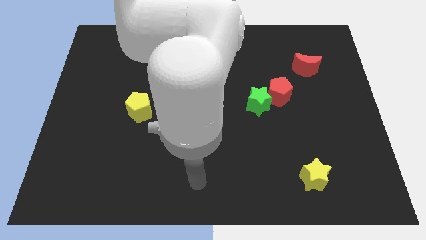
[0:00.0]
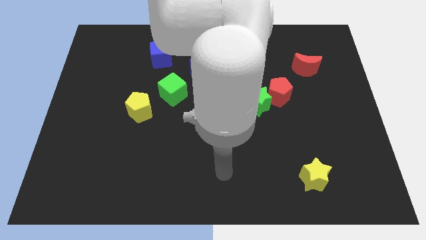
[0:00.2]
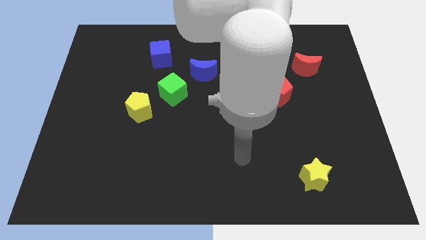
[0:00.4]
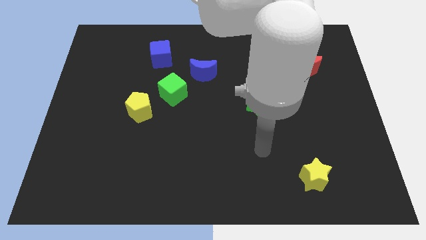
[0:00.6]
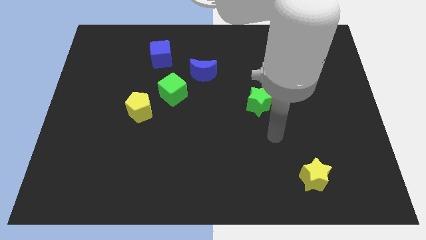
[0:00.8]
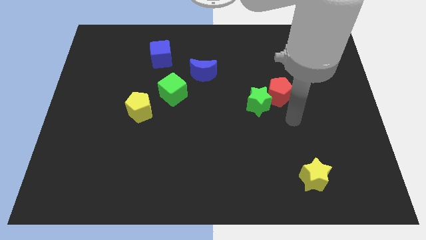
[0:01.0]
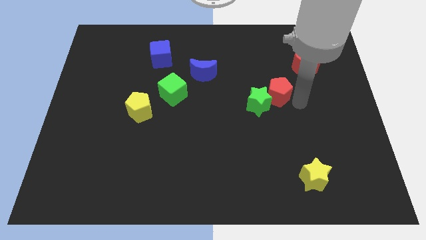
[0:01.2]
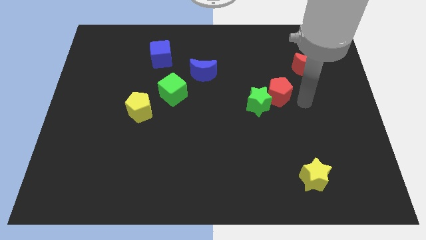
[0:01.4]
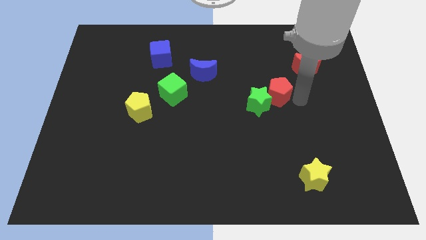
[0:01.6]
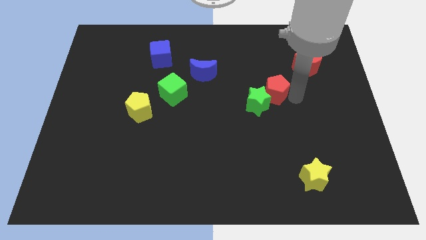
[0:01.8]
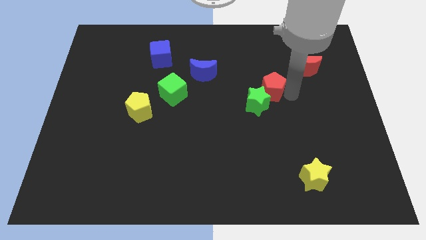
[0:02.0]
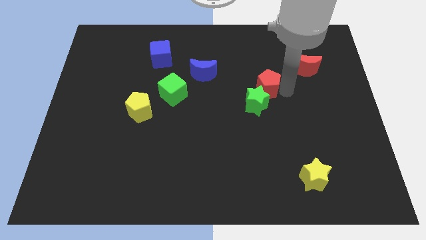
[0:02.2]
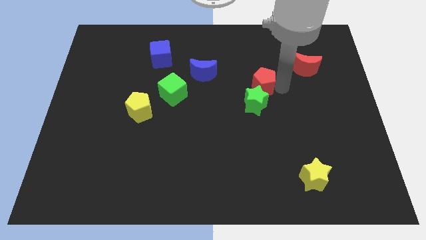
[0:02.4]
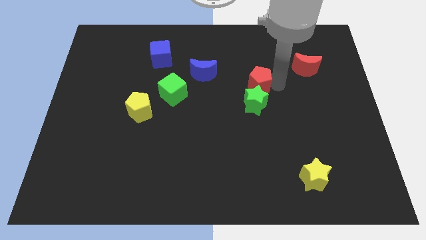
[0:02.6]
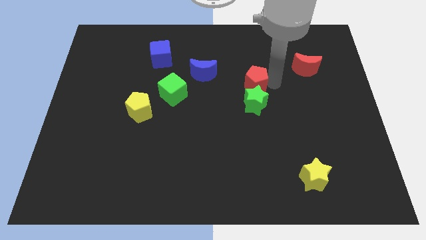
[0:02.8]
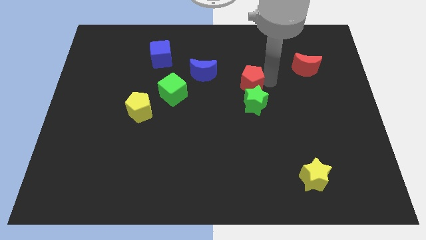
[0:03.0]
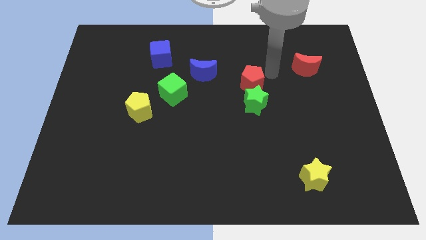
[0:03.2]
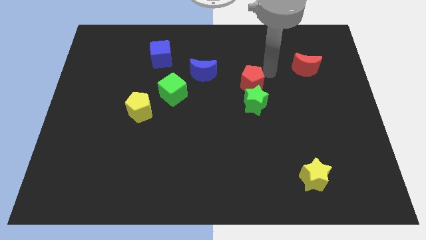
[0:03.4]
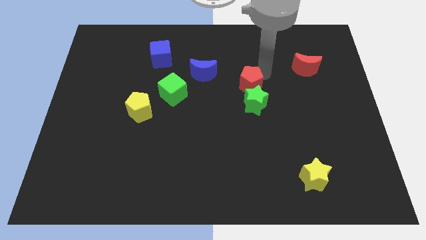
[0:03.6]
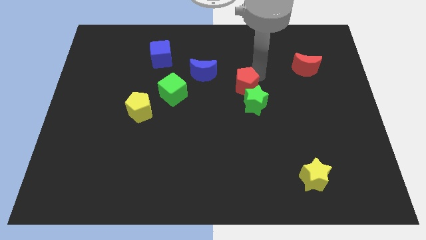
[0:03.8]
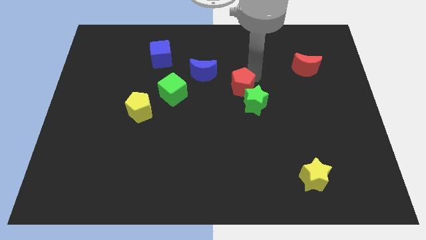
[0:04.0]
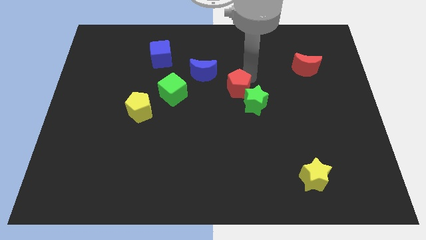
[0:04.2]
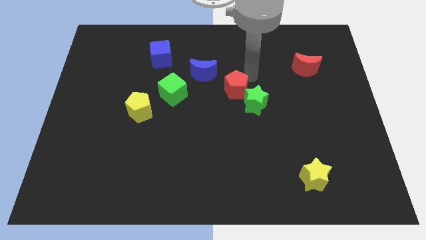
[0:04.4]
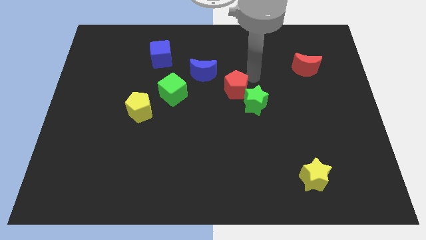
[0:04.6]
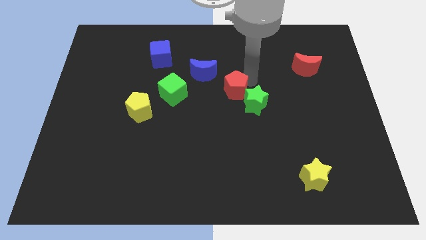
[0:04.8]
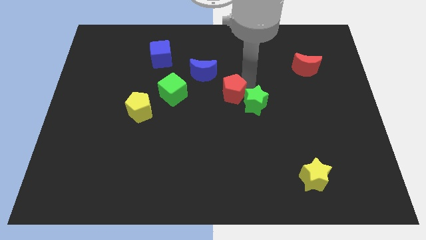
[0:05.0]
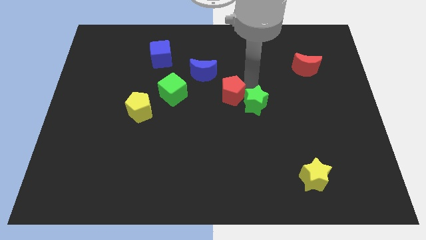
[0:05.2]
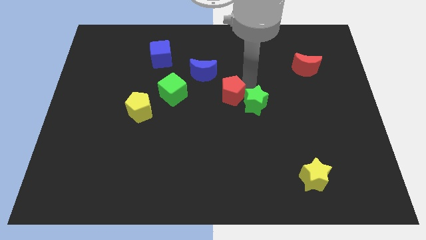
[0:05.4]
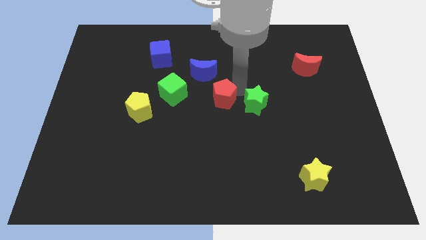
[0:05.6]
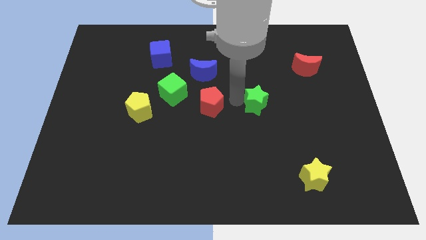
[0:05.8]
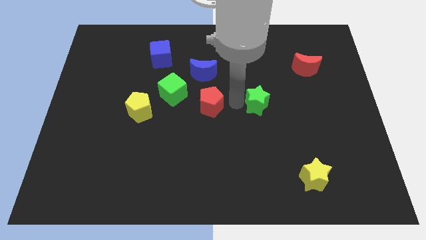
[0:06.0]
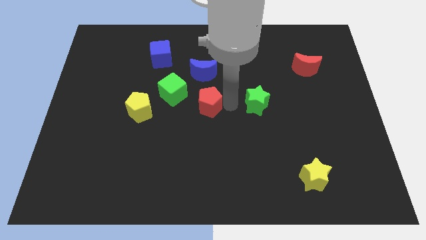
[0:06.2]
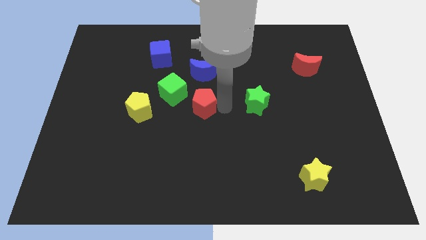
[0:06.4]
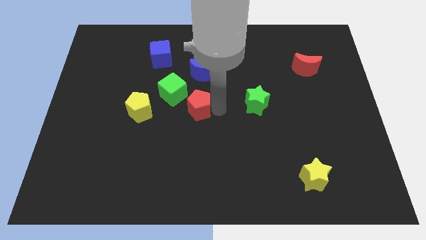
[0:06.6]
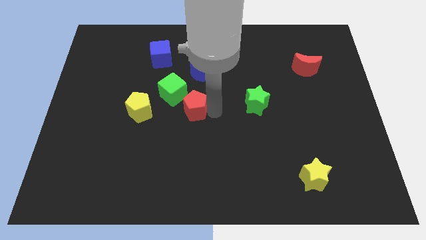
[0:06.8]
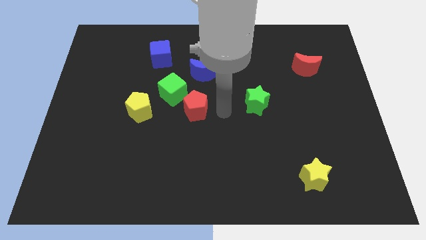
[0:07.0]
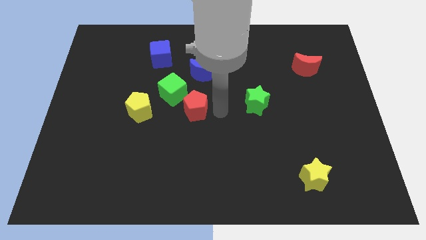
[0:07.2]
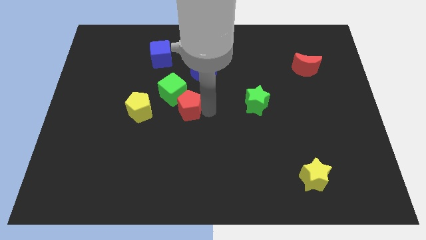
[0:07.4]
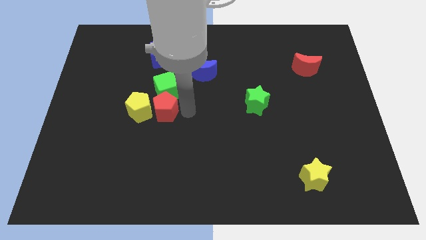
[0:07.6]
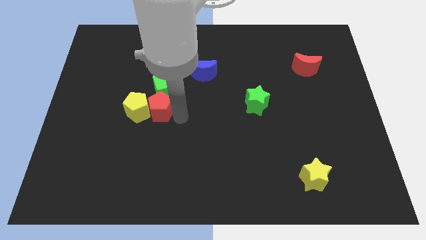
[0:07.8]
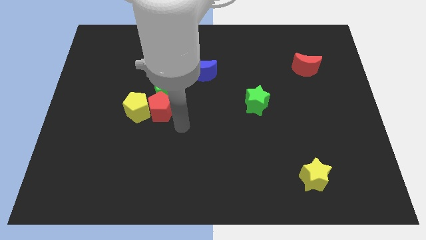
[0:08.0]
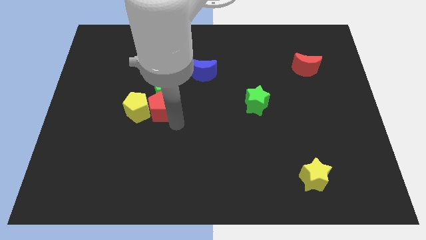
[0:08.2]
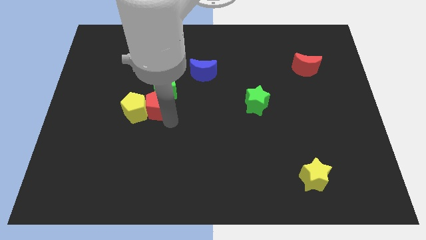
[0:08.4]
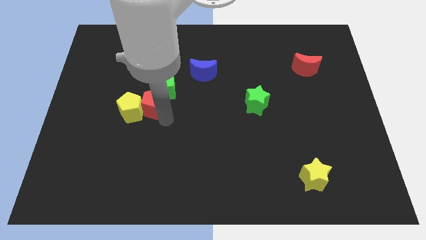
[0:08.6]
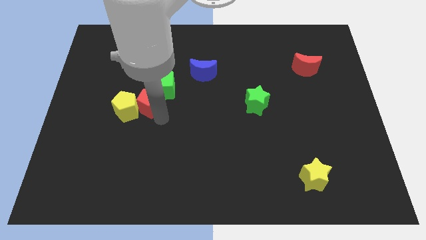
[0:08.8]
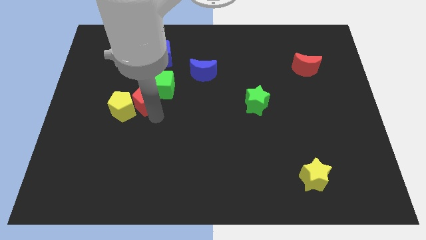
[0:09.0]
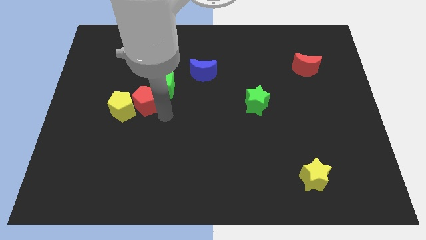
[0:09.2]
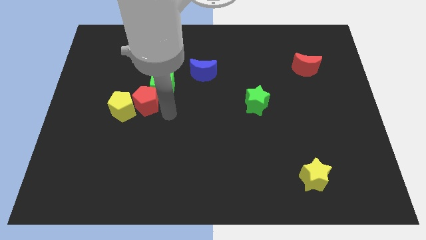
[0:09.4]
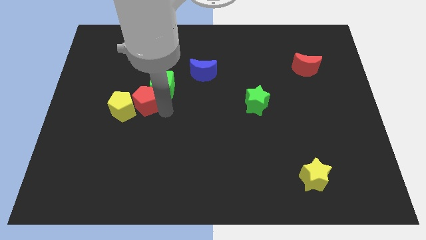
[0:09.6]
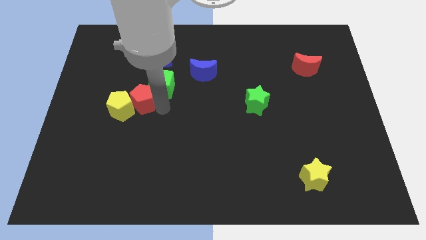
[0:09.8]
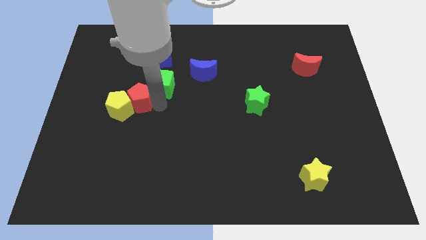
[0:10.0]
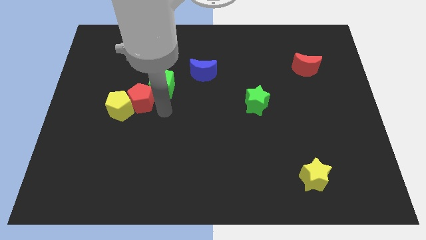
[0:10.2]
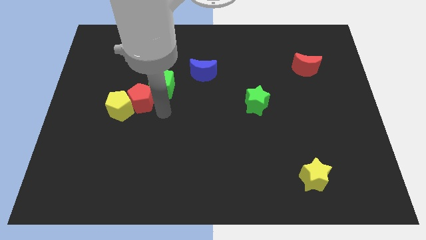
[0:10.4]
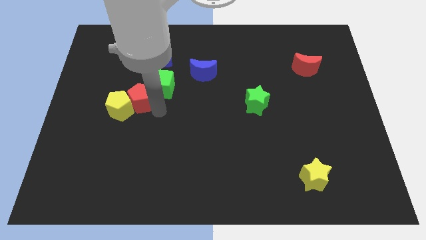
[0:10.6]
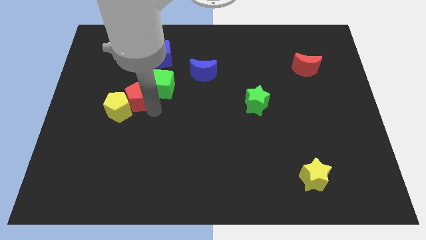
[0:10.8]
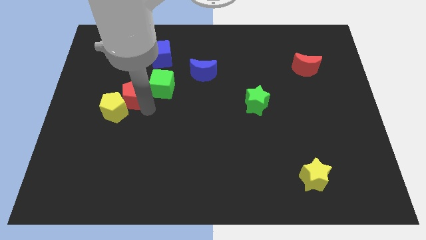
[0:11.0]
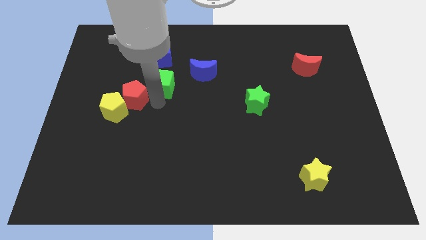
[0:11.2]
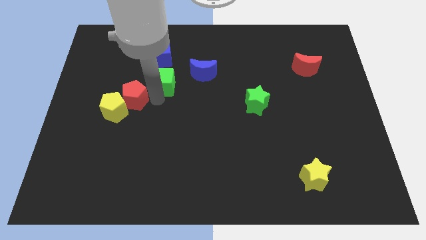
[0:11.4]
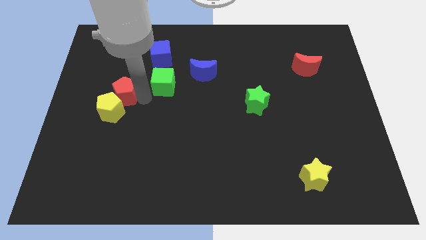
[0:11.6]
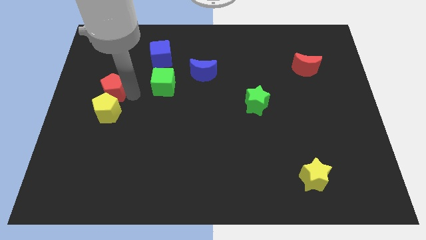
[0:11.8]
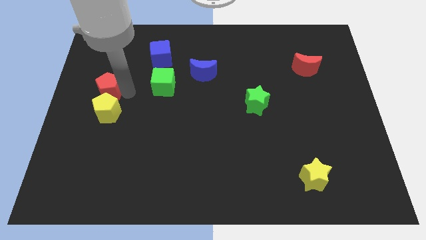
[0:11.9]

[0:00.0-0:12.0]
slide the red pentagon to the left side of the board
